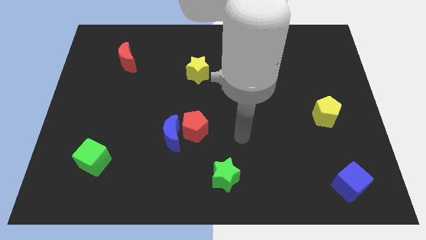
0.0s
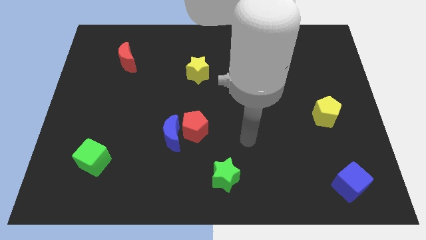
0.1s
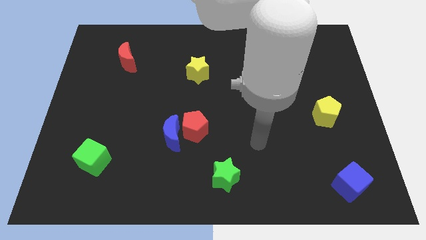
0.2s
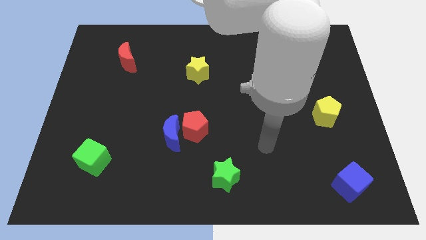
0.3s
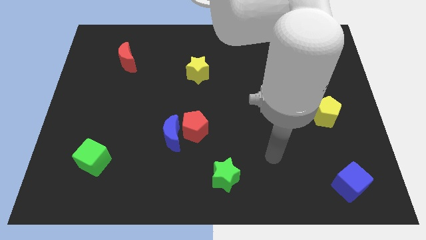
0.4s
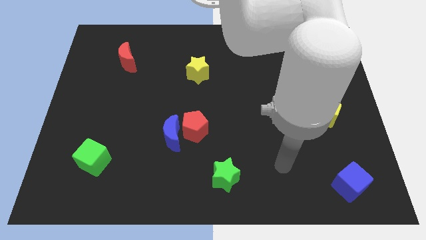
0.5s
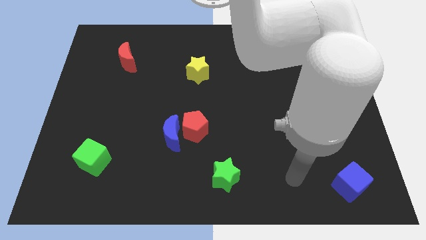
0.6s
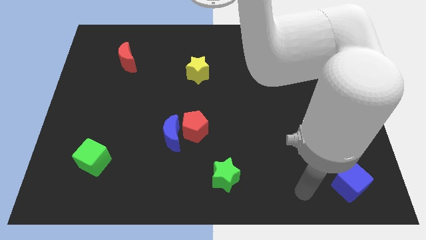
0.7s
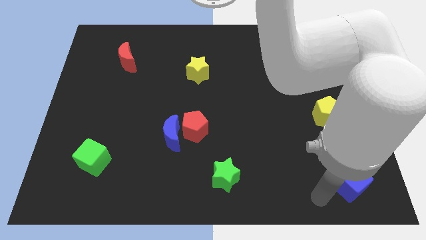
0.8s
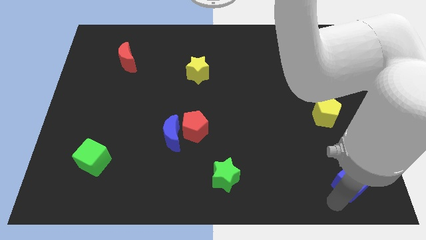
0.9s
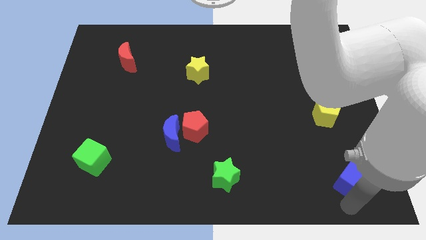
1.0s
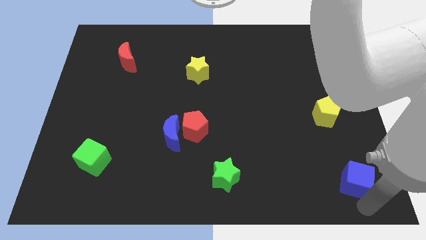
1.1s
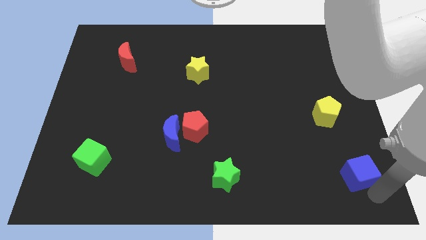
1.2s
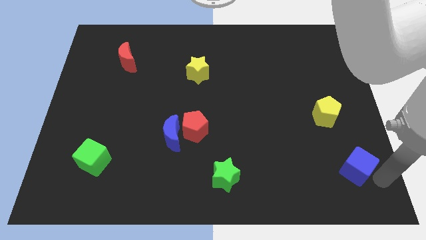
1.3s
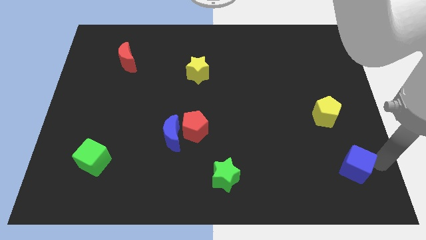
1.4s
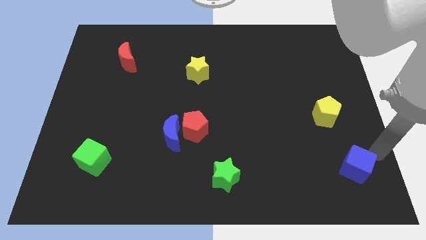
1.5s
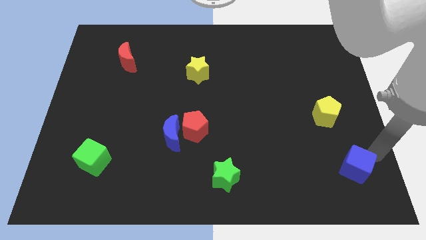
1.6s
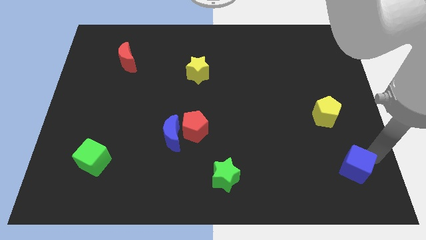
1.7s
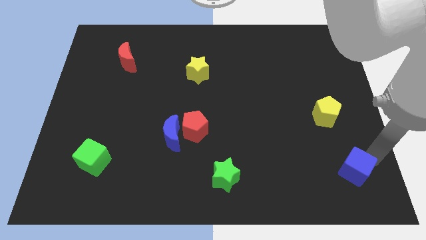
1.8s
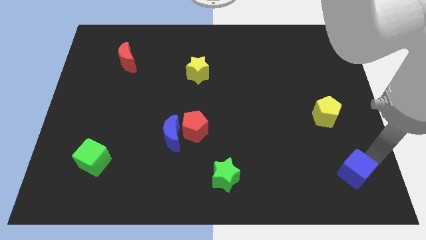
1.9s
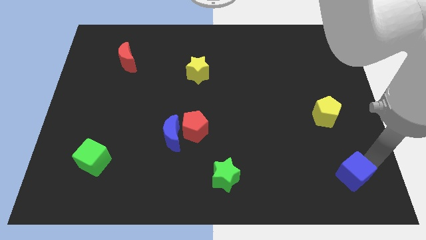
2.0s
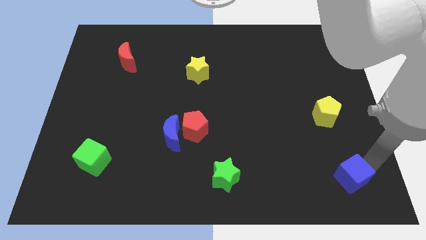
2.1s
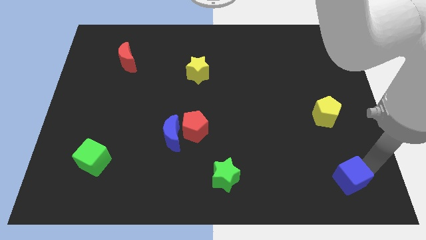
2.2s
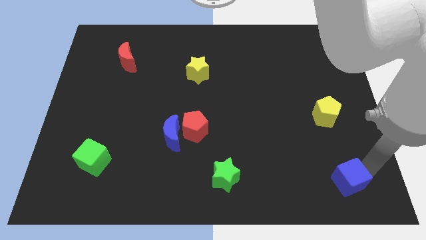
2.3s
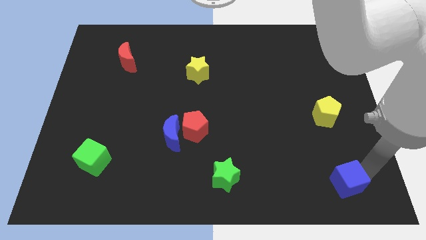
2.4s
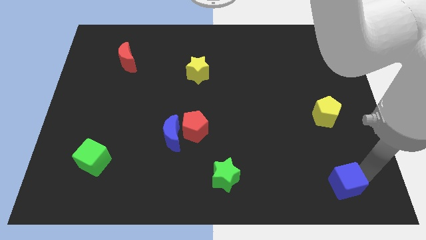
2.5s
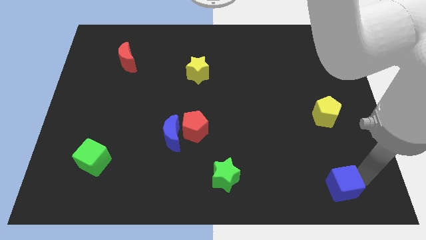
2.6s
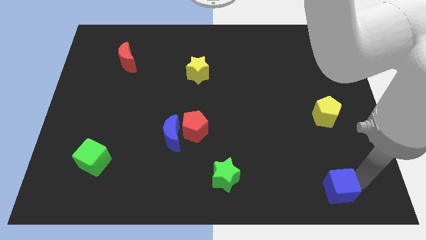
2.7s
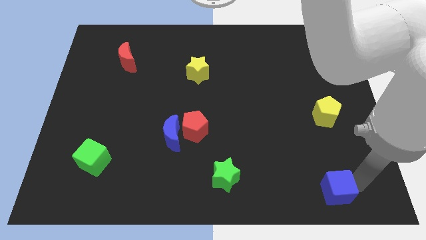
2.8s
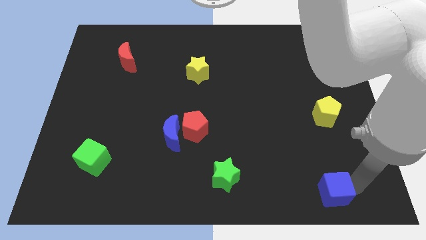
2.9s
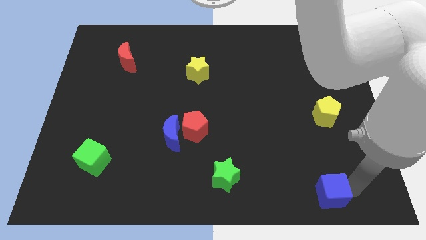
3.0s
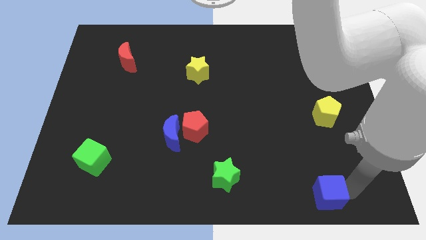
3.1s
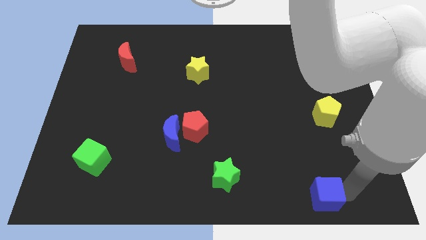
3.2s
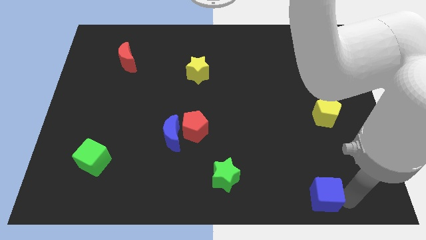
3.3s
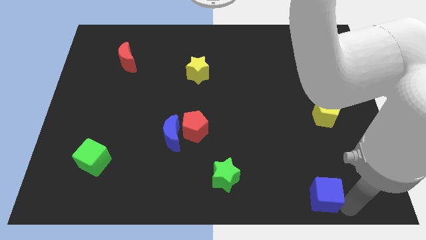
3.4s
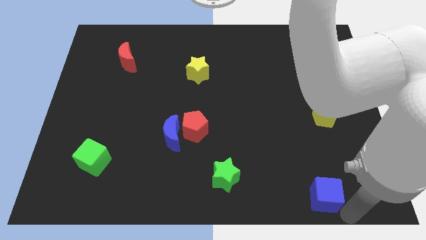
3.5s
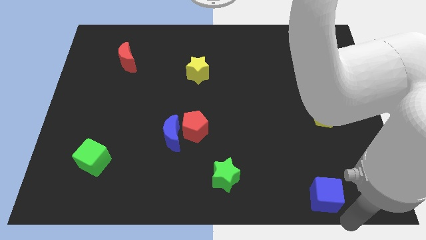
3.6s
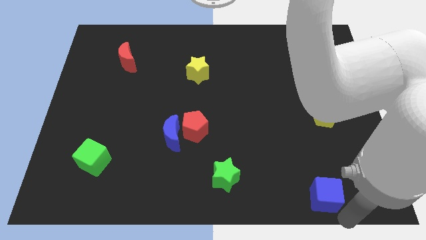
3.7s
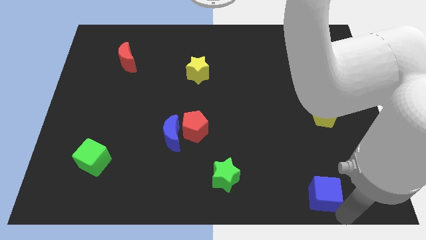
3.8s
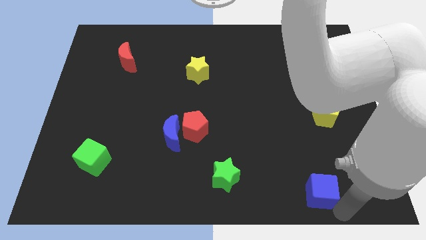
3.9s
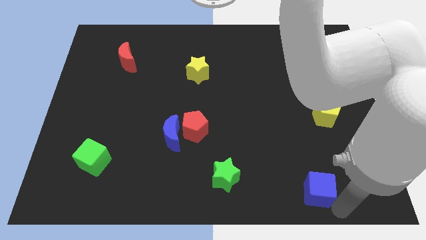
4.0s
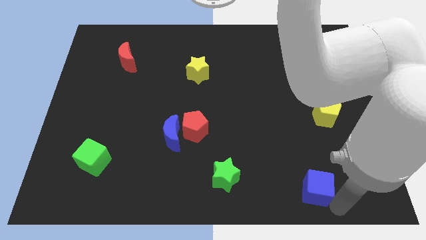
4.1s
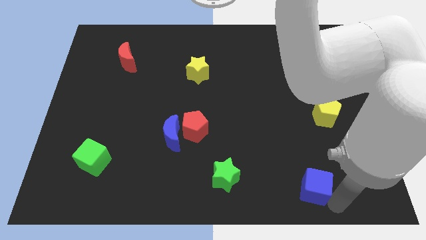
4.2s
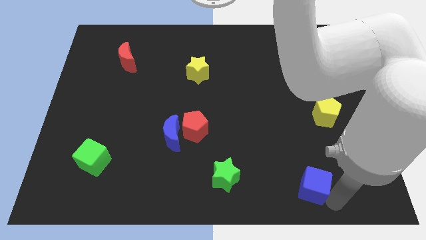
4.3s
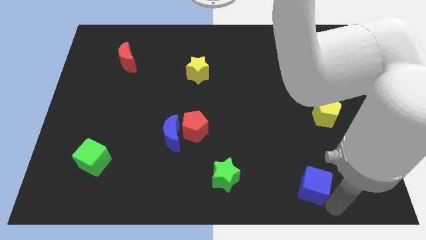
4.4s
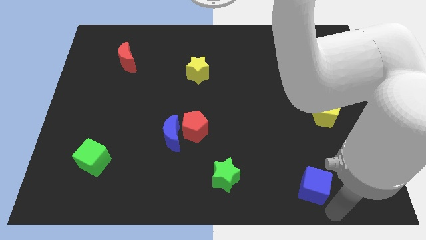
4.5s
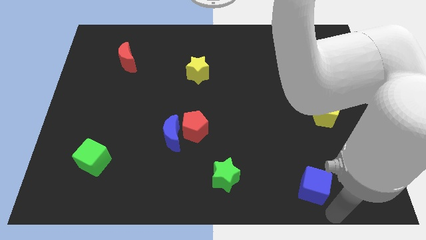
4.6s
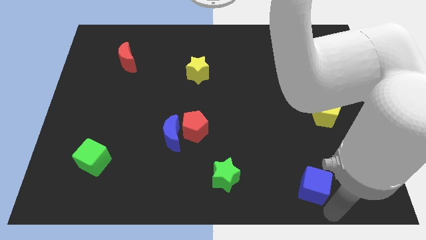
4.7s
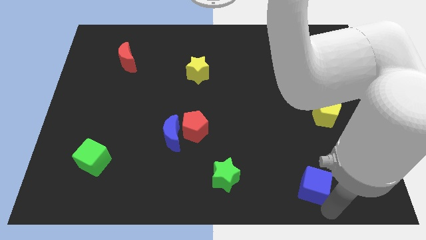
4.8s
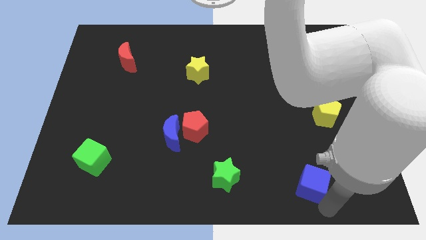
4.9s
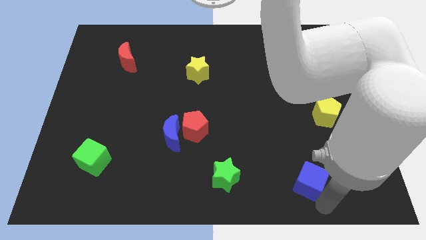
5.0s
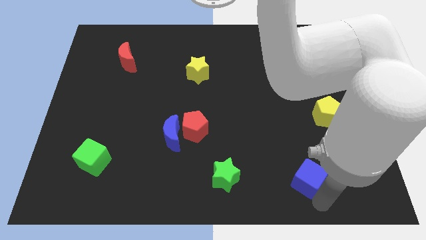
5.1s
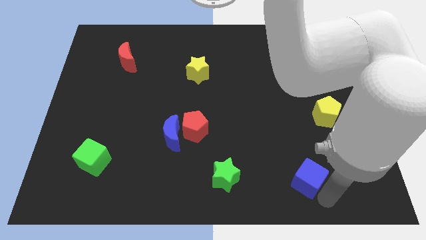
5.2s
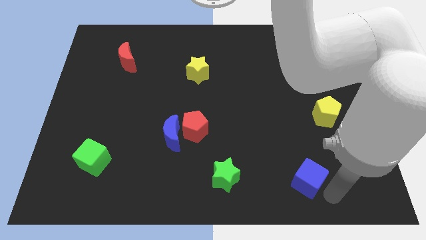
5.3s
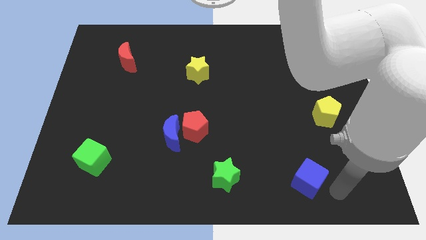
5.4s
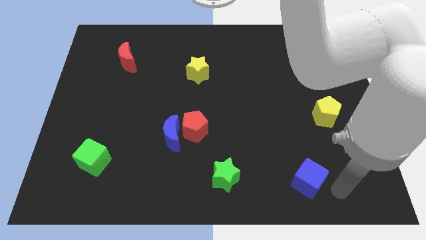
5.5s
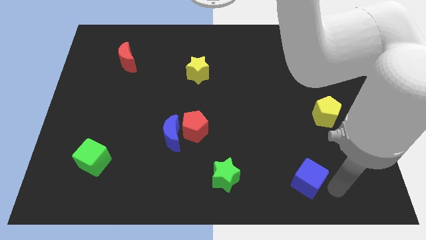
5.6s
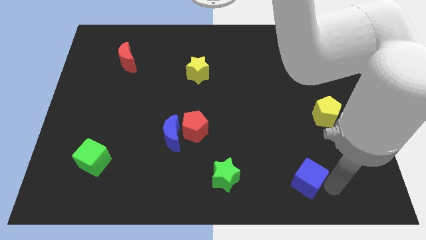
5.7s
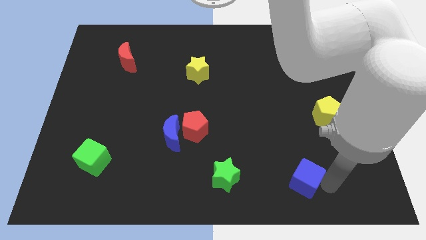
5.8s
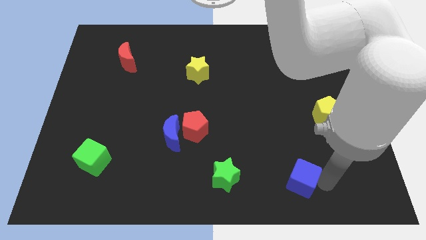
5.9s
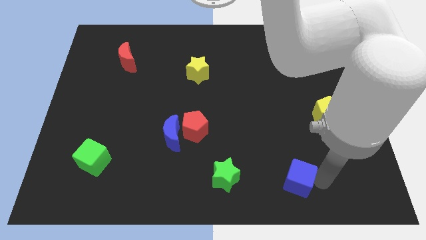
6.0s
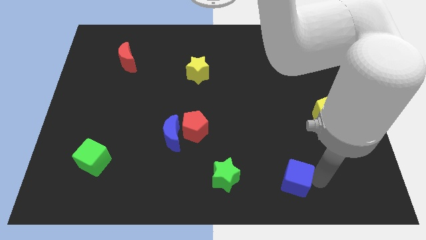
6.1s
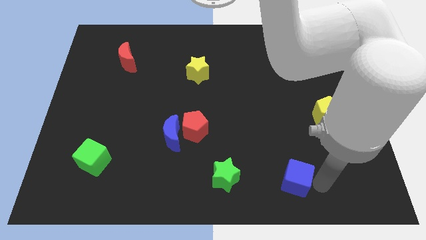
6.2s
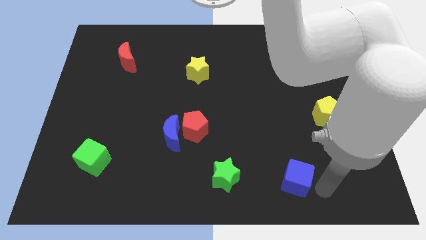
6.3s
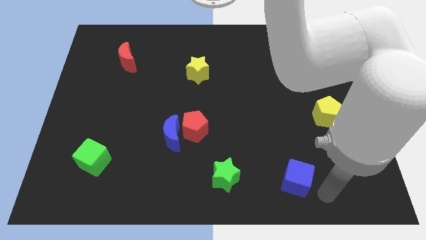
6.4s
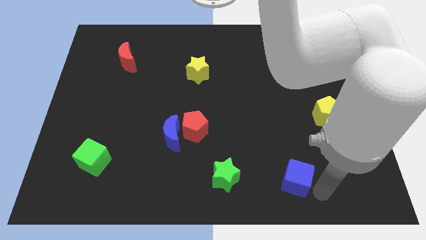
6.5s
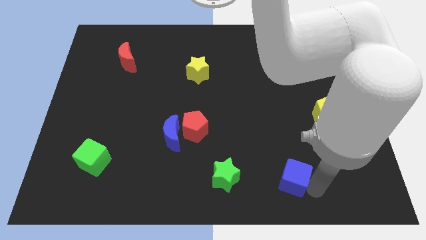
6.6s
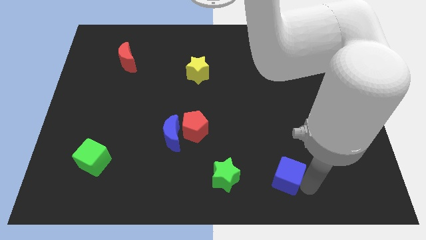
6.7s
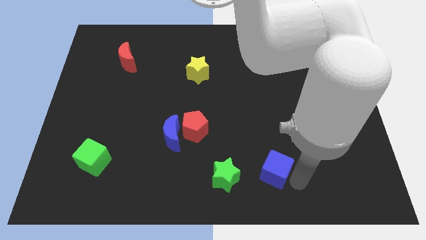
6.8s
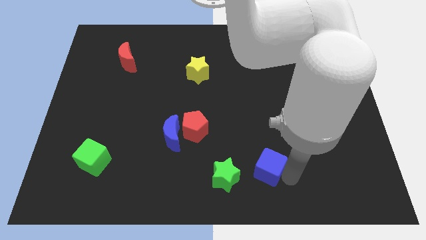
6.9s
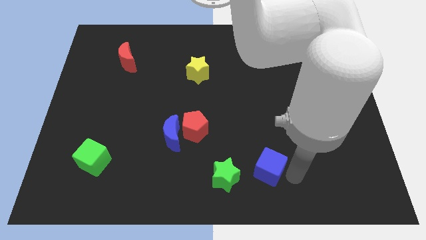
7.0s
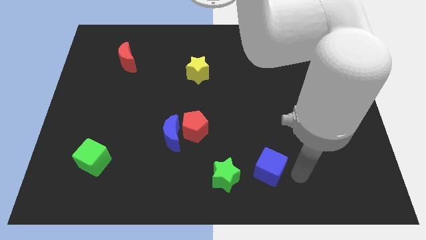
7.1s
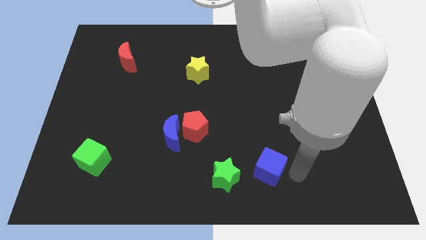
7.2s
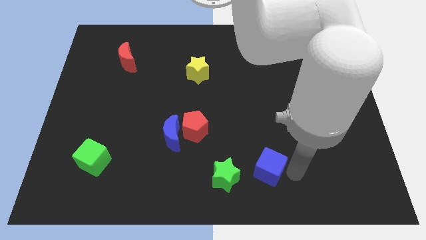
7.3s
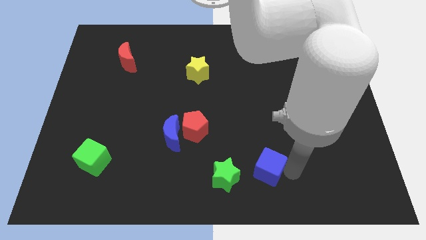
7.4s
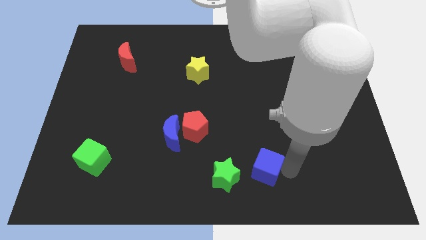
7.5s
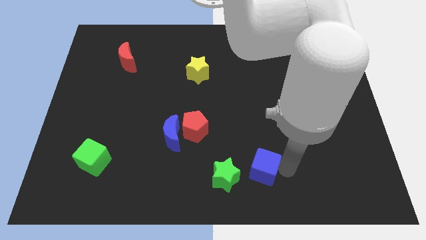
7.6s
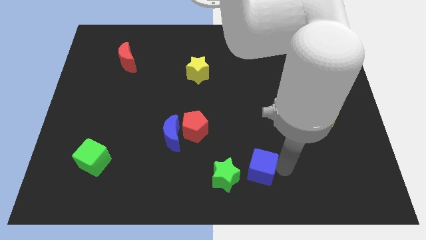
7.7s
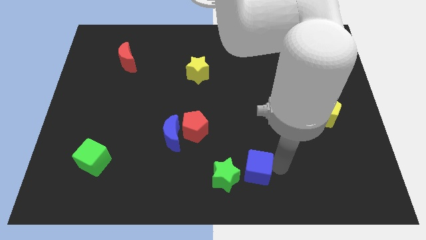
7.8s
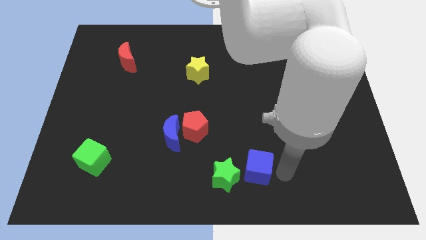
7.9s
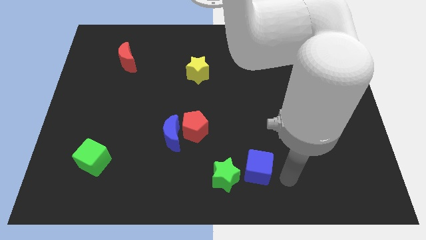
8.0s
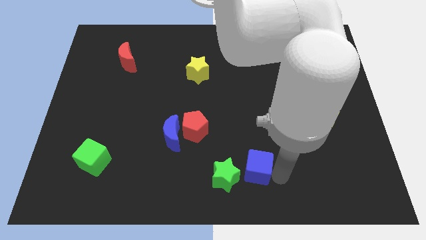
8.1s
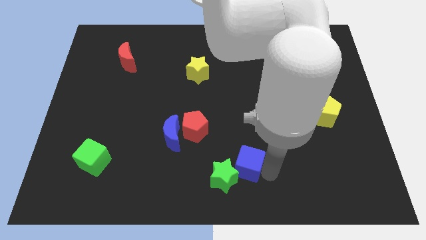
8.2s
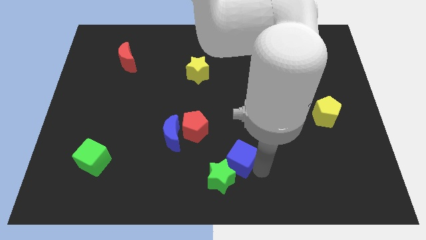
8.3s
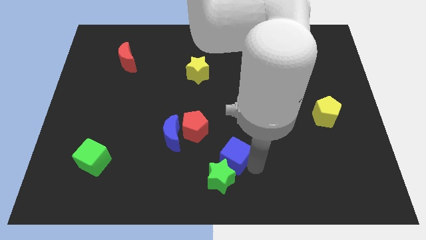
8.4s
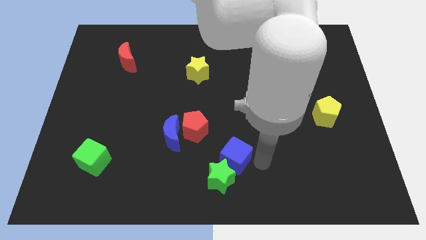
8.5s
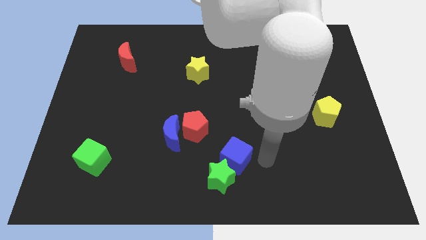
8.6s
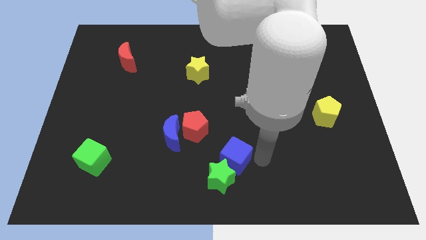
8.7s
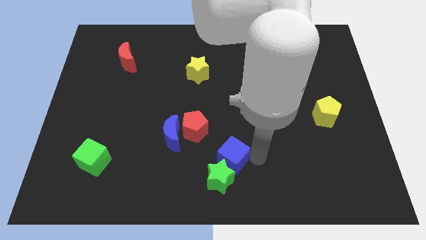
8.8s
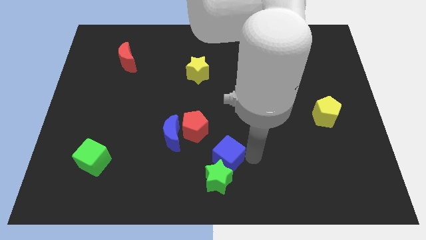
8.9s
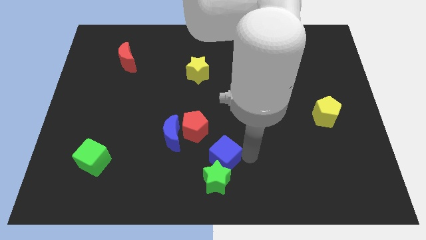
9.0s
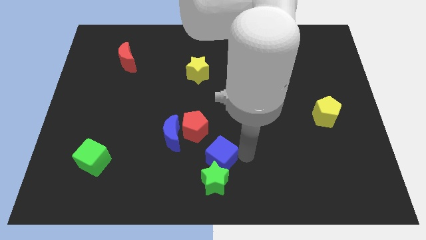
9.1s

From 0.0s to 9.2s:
put the blue cube to the top left of the green star
